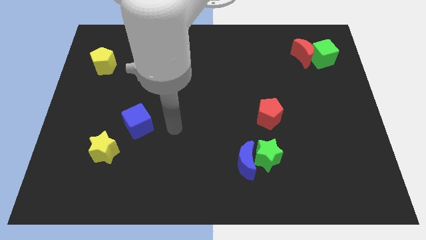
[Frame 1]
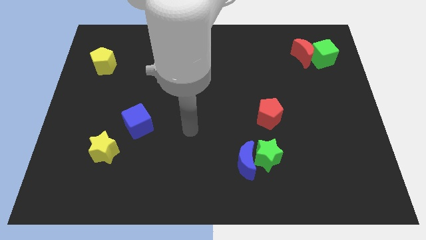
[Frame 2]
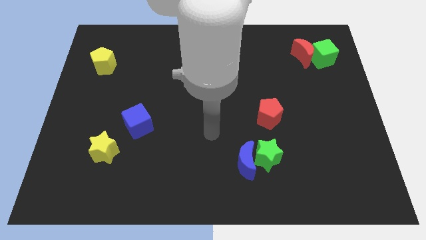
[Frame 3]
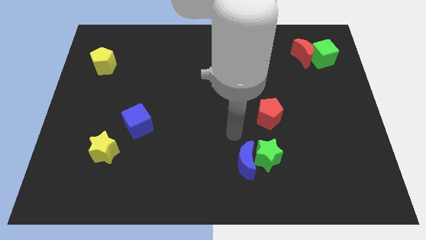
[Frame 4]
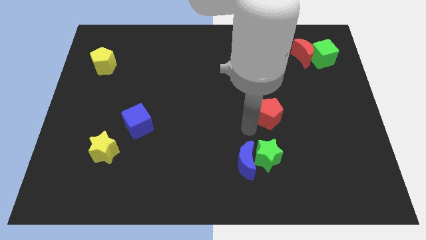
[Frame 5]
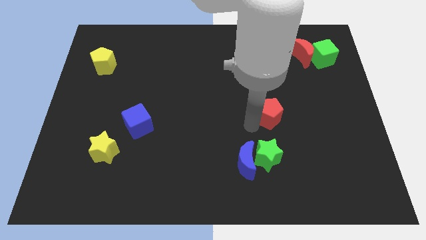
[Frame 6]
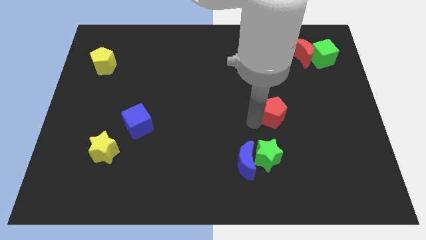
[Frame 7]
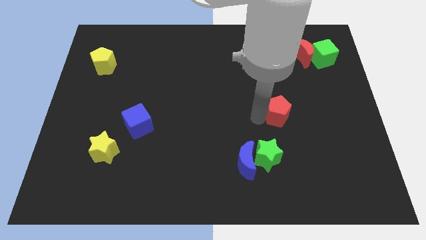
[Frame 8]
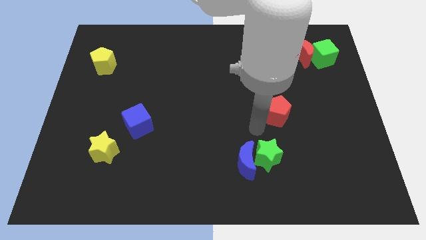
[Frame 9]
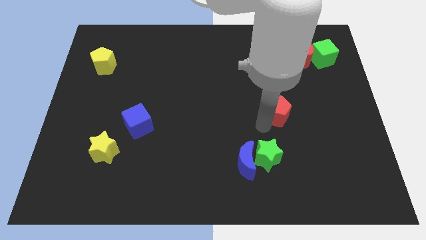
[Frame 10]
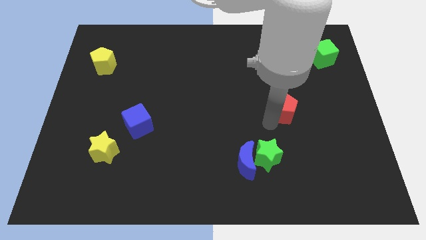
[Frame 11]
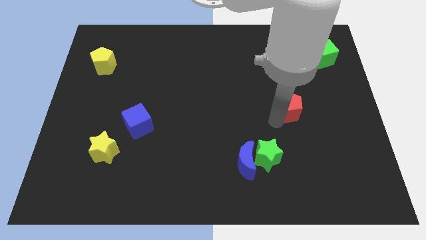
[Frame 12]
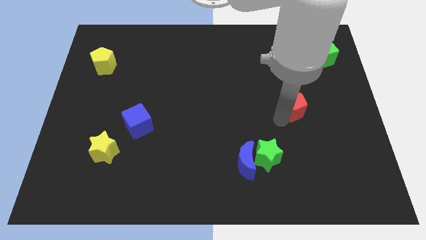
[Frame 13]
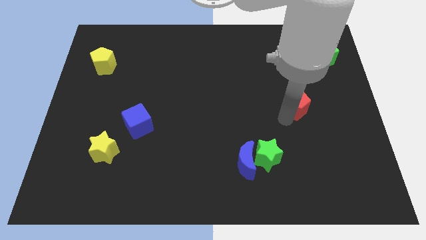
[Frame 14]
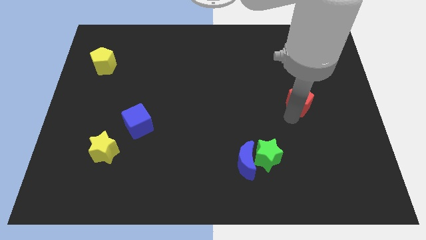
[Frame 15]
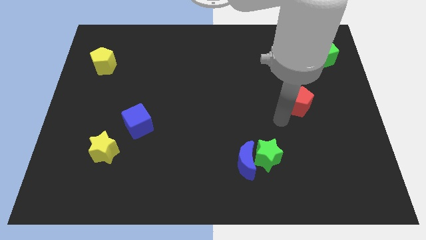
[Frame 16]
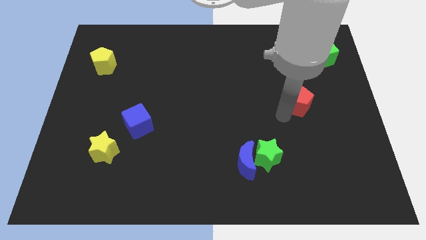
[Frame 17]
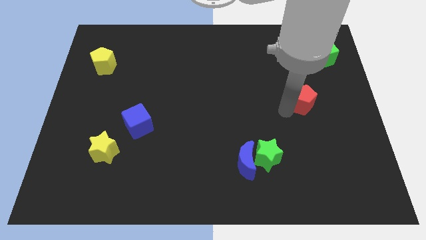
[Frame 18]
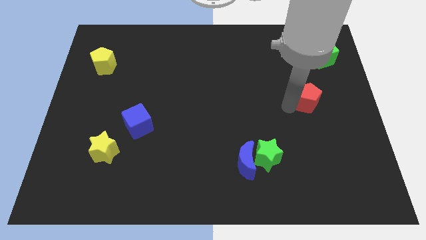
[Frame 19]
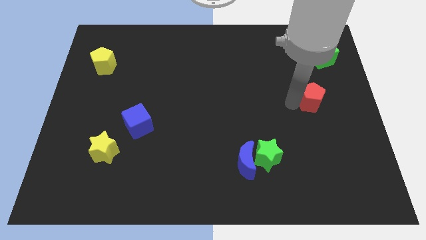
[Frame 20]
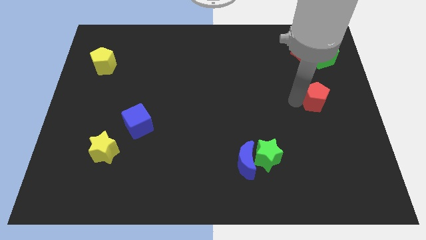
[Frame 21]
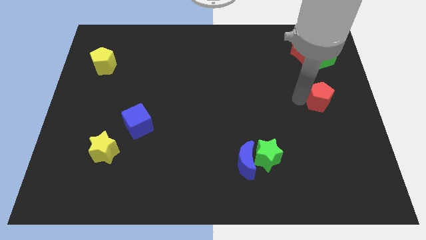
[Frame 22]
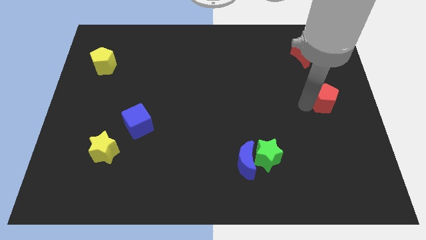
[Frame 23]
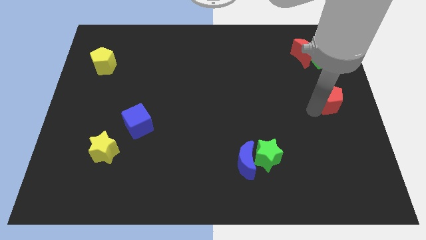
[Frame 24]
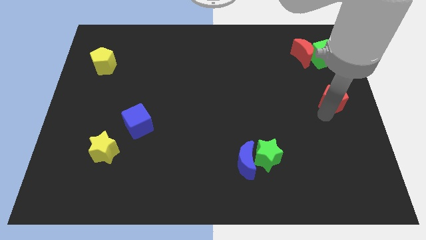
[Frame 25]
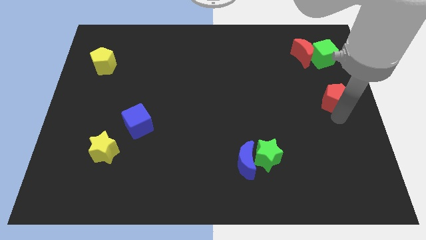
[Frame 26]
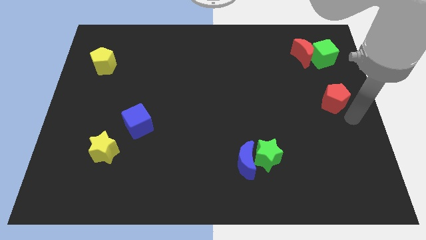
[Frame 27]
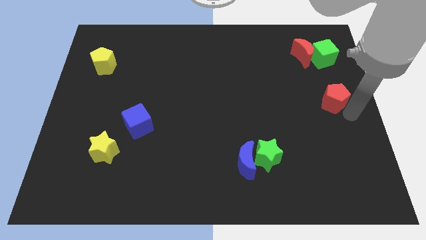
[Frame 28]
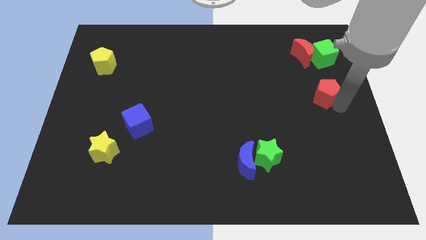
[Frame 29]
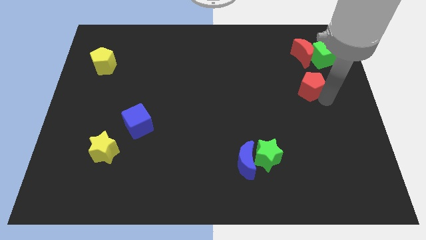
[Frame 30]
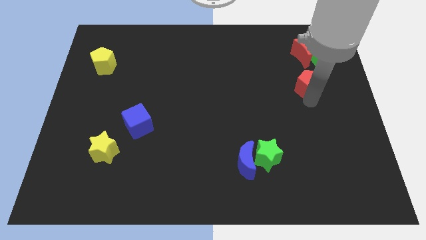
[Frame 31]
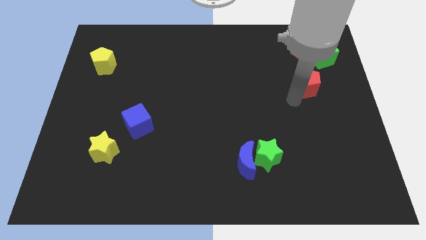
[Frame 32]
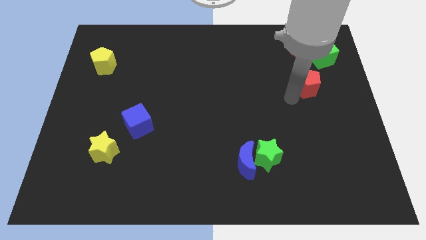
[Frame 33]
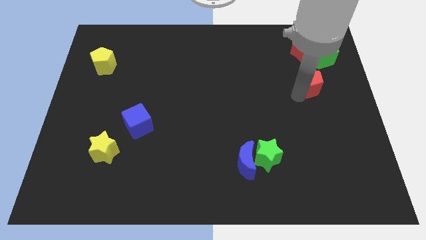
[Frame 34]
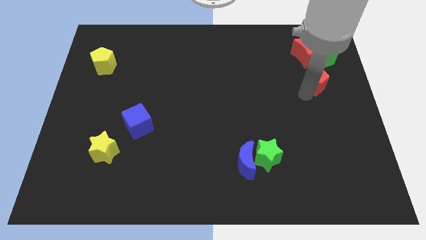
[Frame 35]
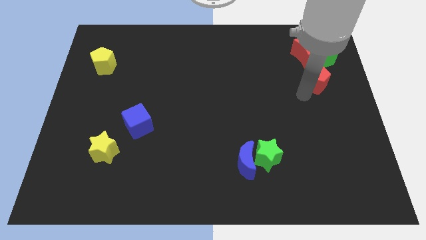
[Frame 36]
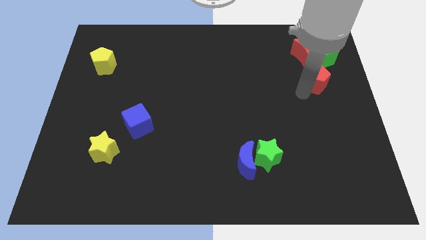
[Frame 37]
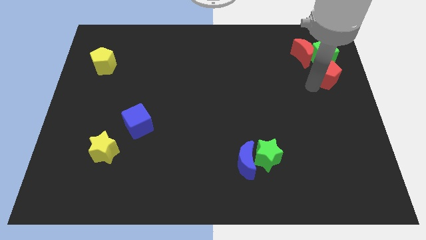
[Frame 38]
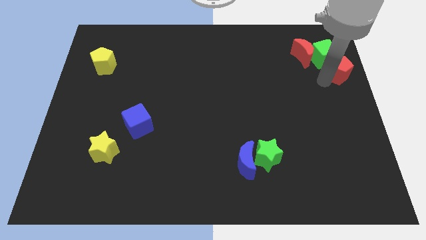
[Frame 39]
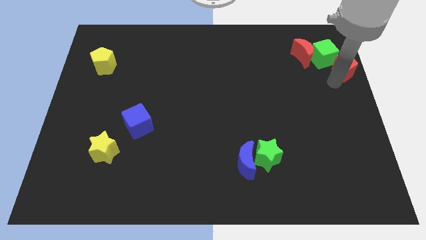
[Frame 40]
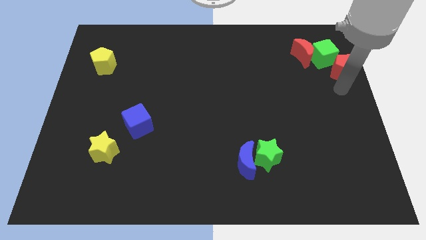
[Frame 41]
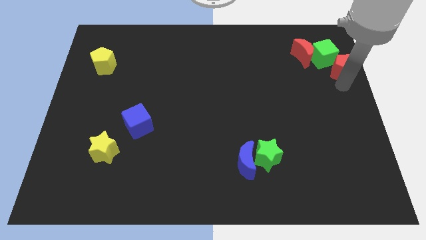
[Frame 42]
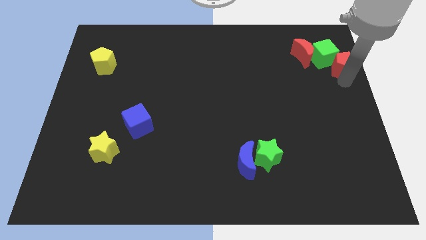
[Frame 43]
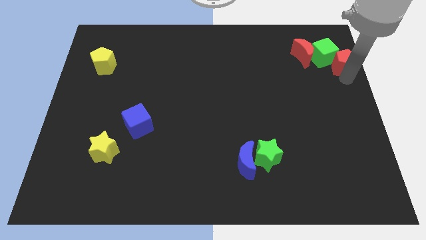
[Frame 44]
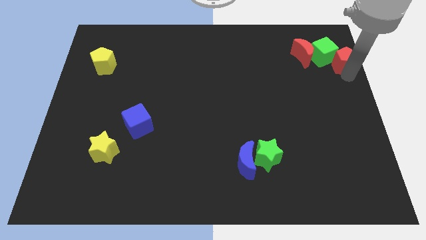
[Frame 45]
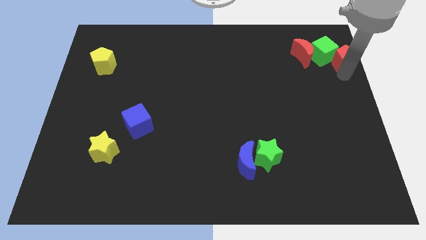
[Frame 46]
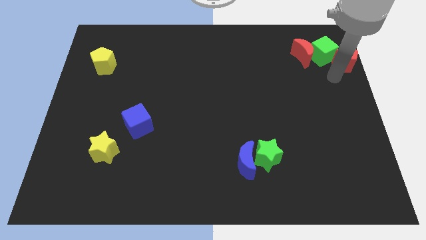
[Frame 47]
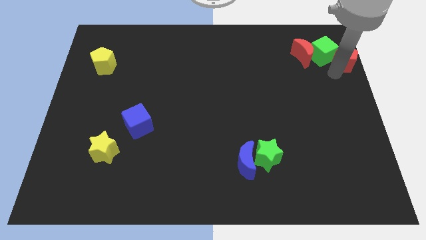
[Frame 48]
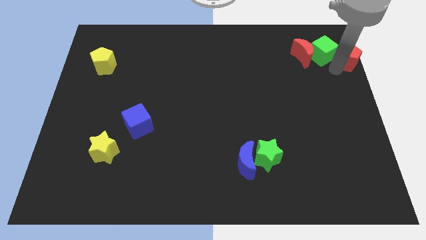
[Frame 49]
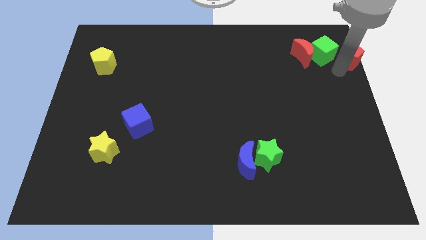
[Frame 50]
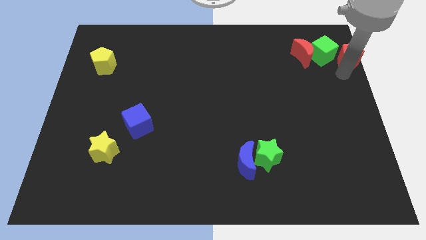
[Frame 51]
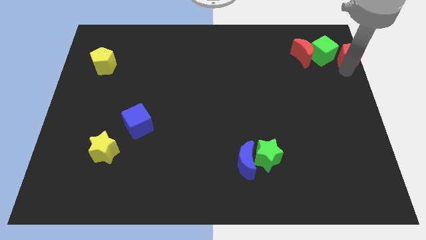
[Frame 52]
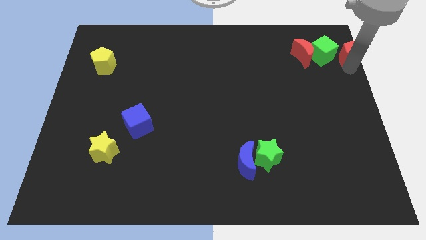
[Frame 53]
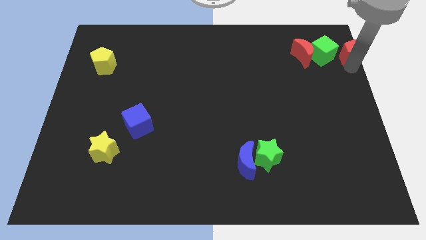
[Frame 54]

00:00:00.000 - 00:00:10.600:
move the red pentagon to the top right

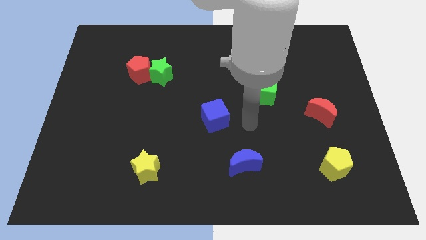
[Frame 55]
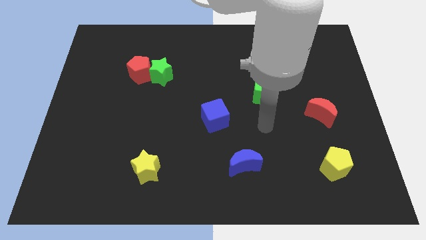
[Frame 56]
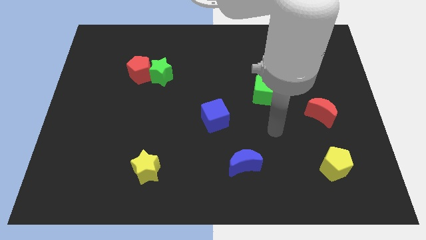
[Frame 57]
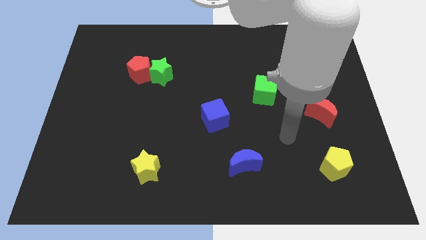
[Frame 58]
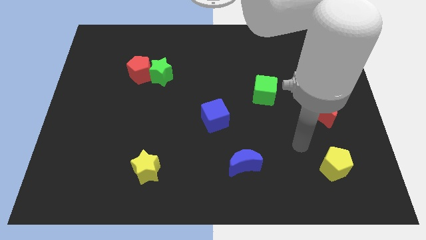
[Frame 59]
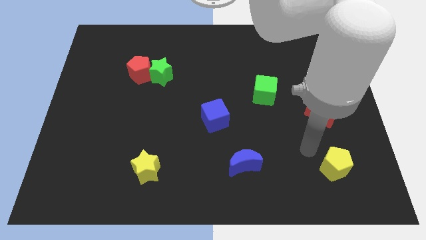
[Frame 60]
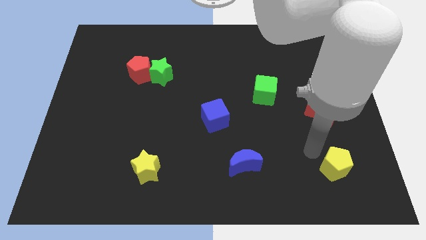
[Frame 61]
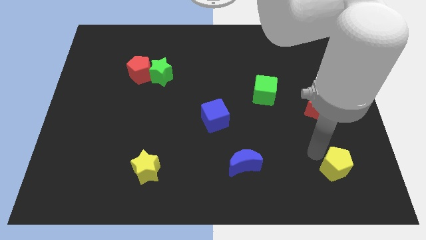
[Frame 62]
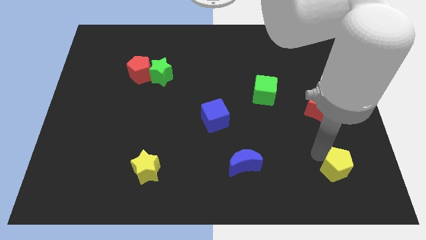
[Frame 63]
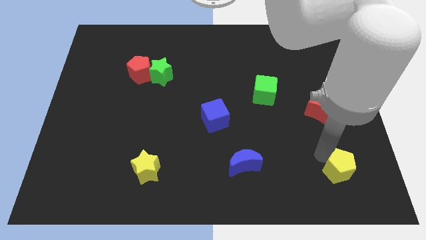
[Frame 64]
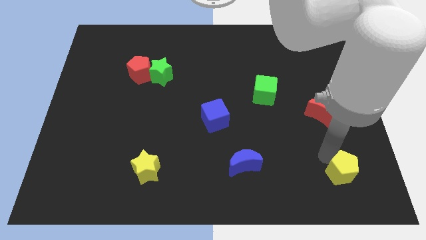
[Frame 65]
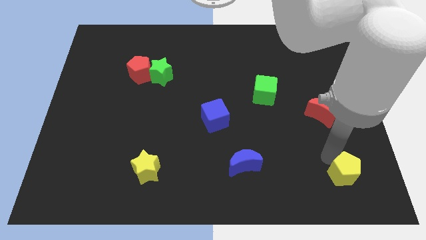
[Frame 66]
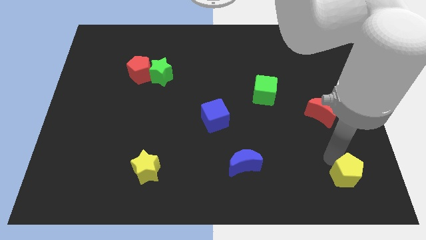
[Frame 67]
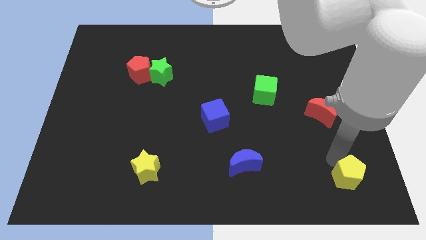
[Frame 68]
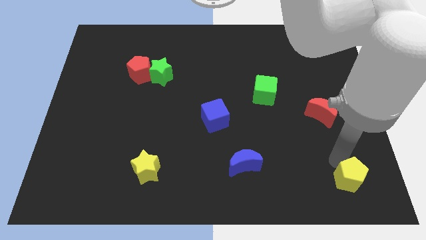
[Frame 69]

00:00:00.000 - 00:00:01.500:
put the yellow pentagon to the bottom right
